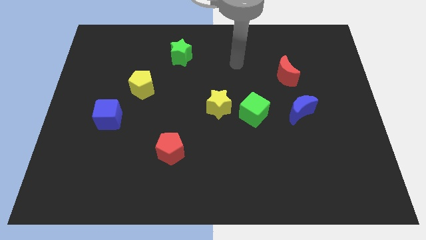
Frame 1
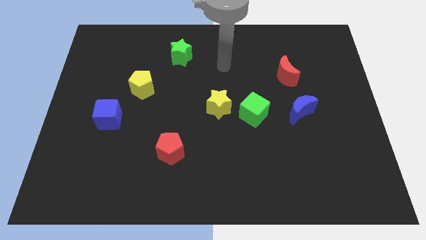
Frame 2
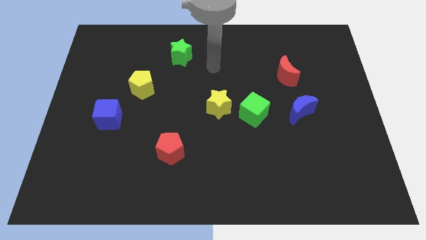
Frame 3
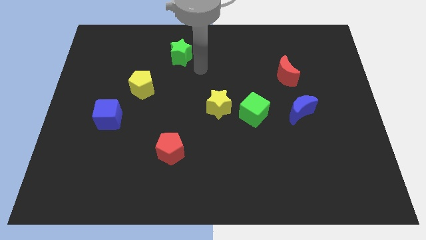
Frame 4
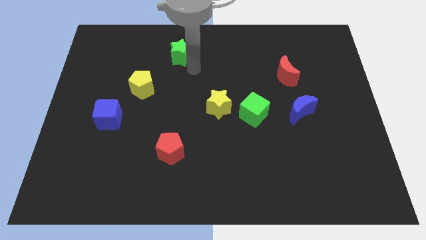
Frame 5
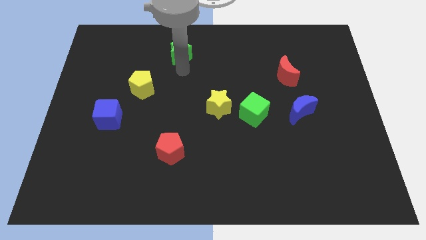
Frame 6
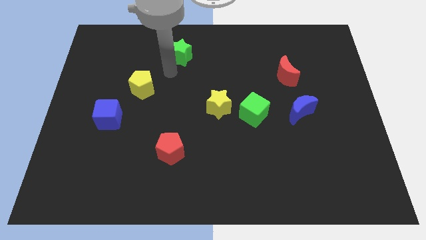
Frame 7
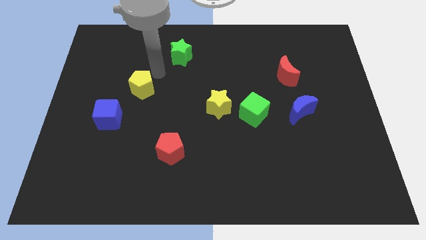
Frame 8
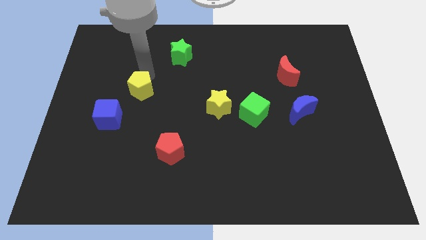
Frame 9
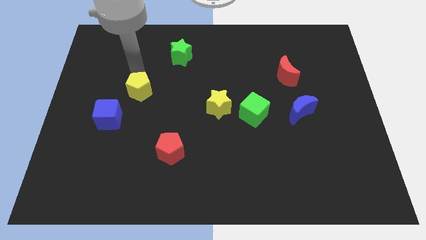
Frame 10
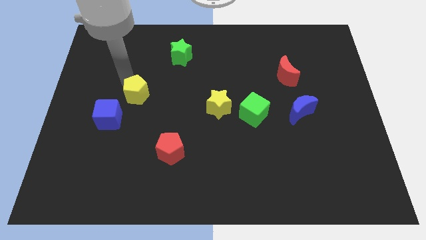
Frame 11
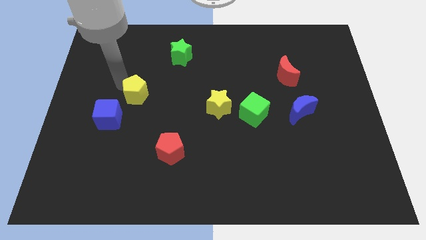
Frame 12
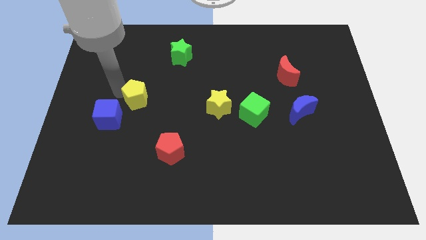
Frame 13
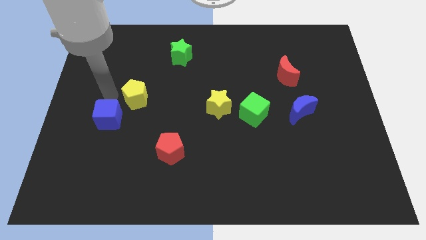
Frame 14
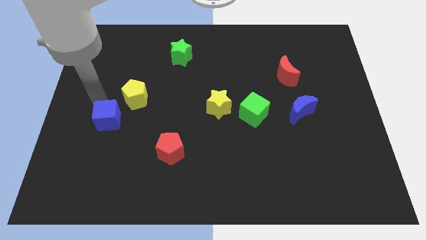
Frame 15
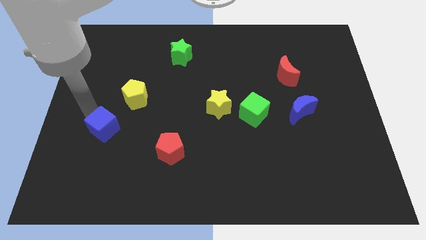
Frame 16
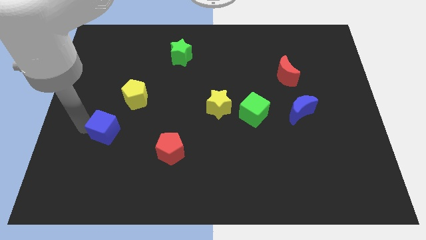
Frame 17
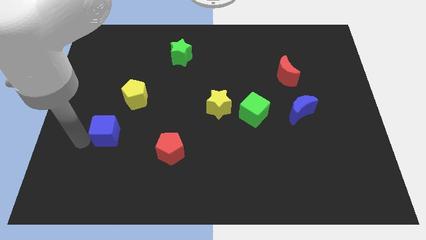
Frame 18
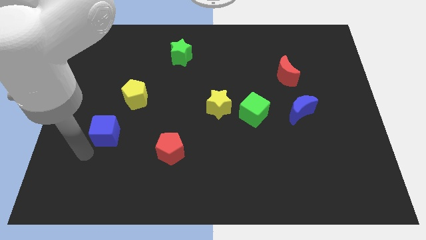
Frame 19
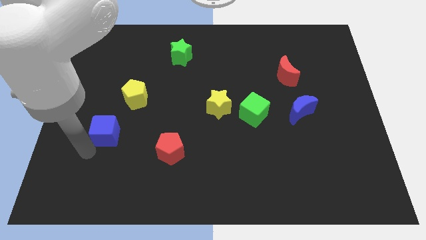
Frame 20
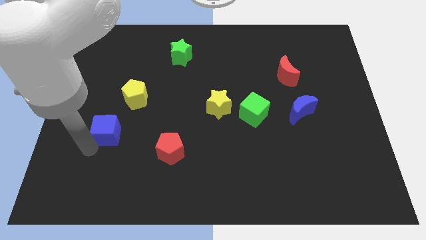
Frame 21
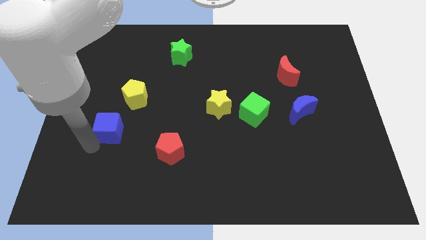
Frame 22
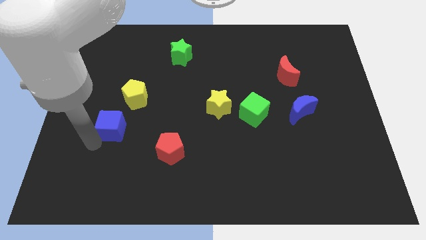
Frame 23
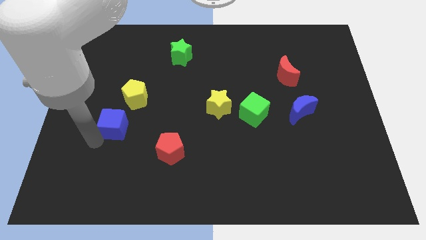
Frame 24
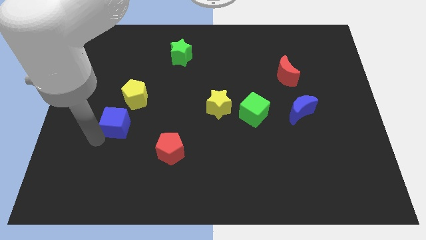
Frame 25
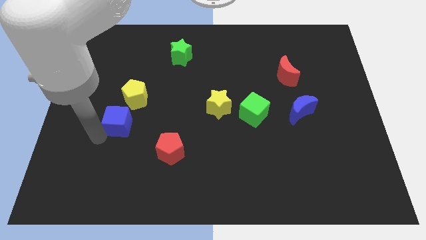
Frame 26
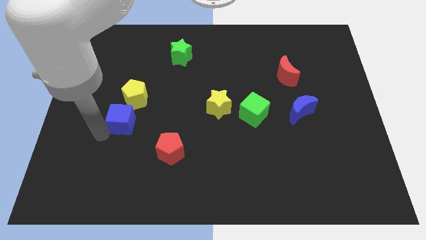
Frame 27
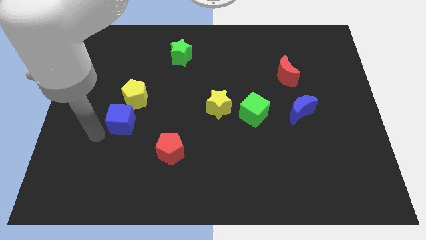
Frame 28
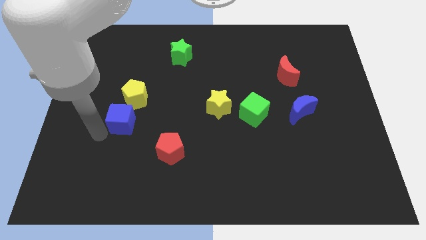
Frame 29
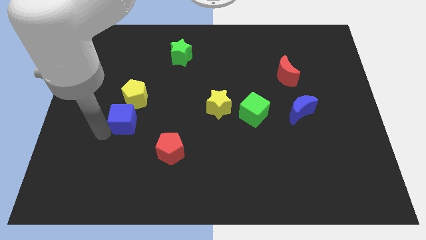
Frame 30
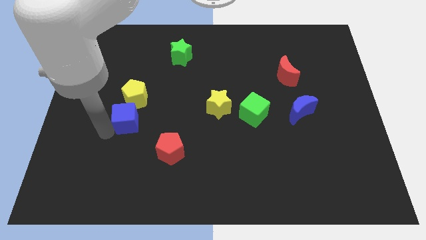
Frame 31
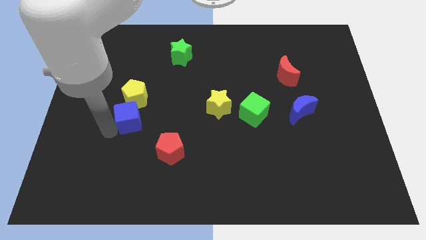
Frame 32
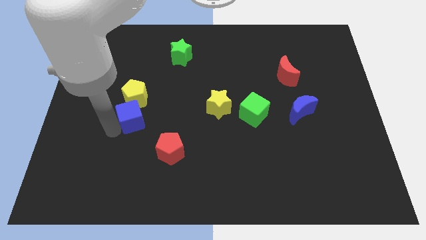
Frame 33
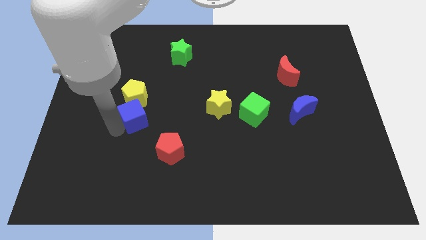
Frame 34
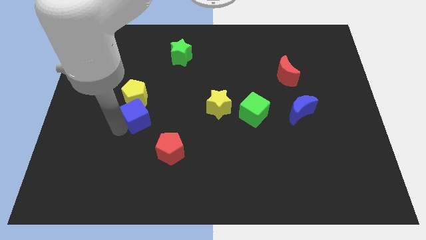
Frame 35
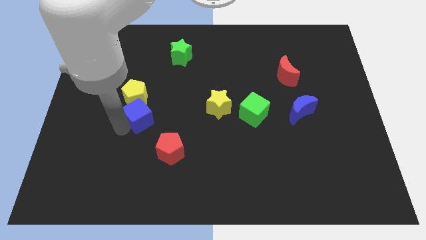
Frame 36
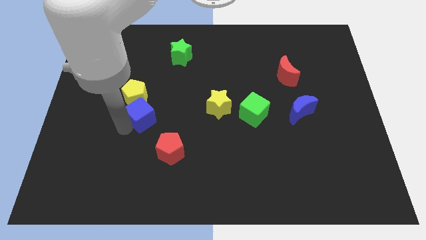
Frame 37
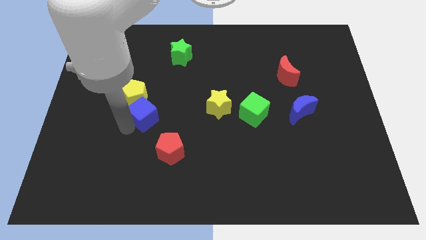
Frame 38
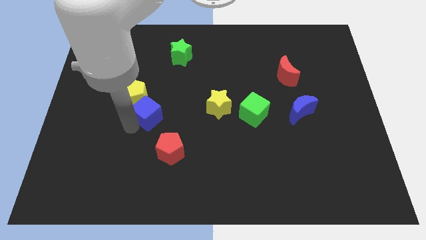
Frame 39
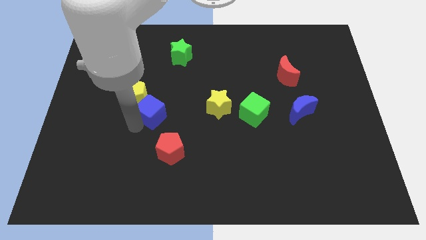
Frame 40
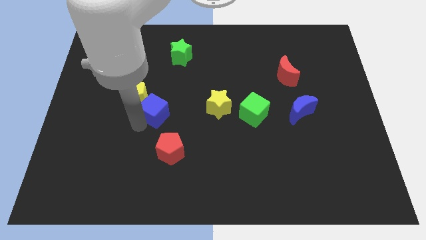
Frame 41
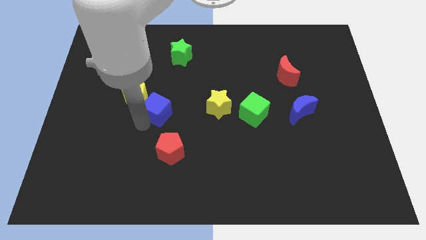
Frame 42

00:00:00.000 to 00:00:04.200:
slightly move the blue cube upwards and right diagonally

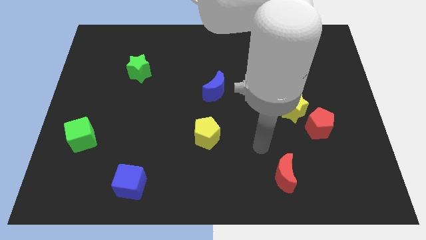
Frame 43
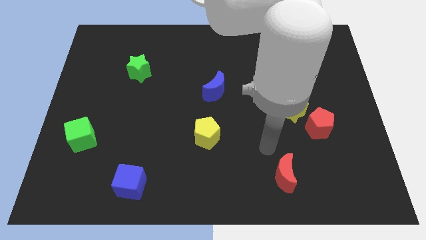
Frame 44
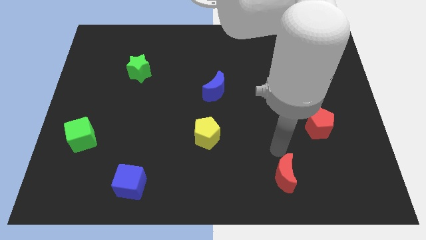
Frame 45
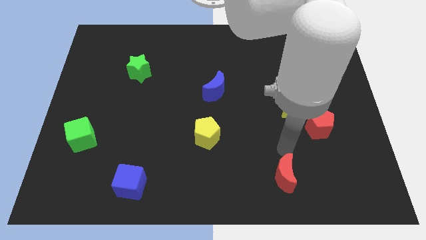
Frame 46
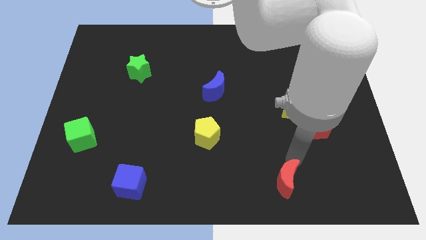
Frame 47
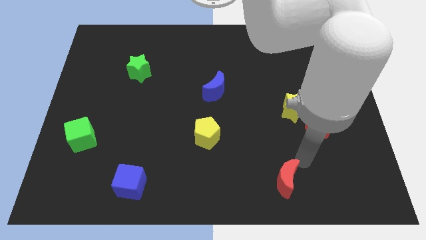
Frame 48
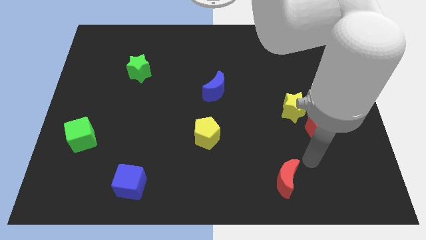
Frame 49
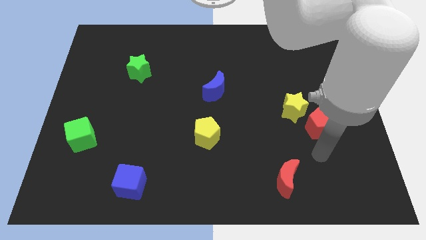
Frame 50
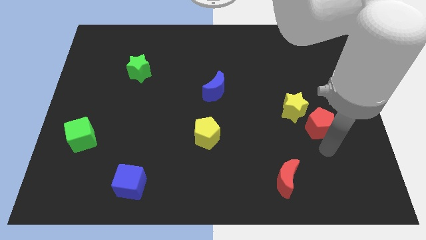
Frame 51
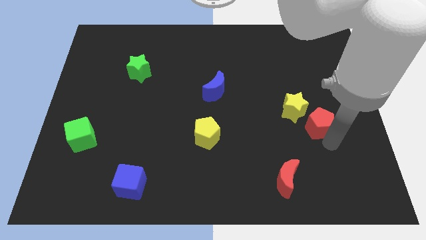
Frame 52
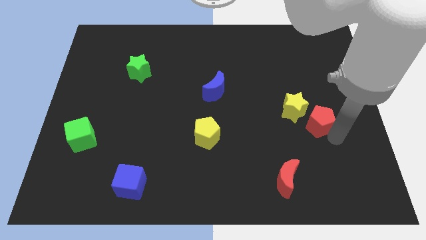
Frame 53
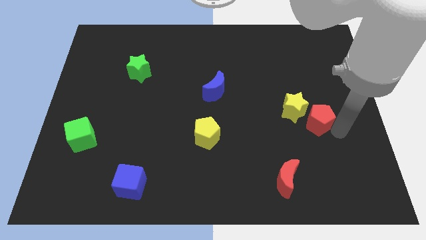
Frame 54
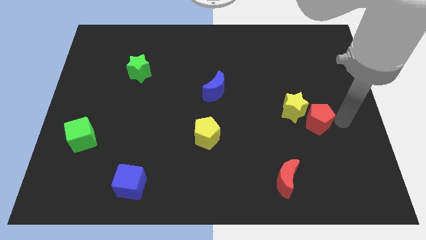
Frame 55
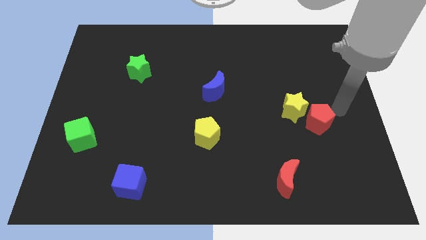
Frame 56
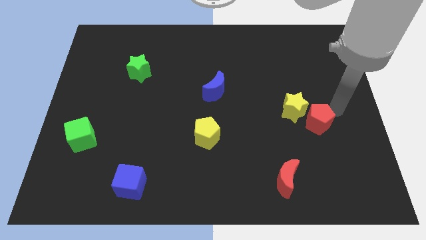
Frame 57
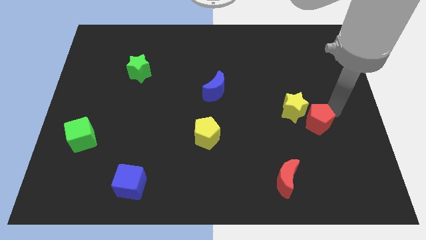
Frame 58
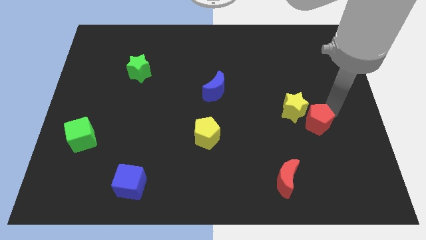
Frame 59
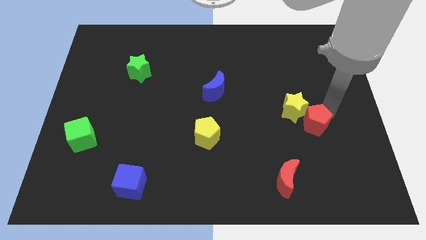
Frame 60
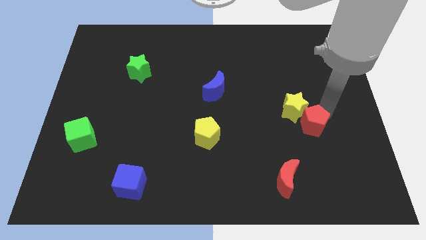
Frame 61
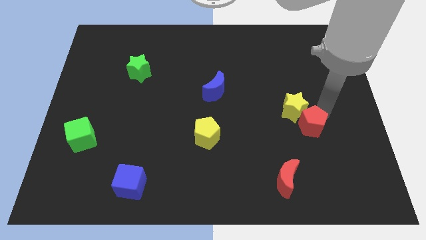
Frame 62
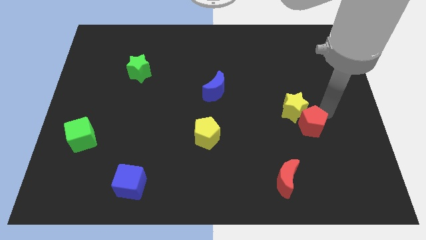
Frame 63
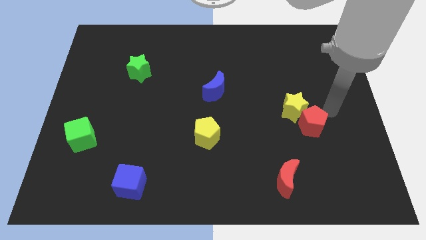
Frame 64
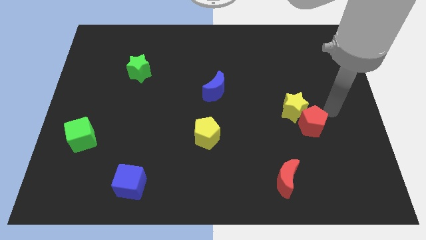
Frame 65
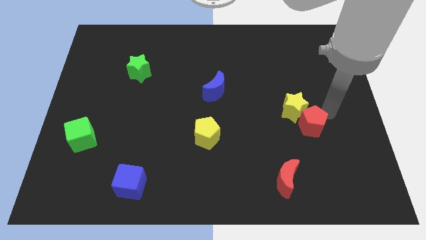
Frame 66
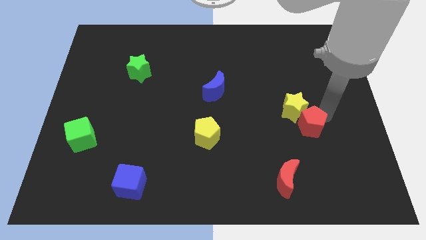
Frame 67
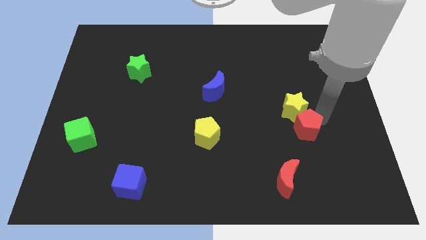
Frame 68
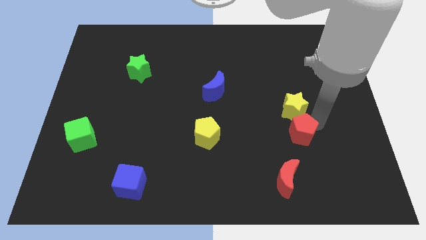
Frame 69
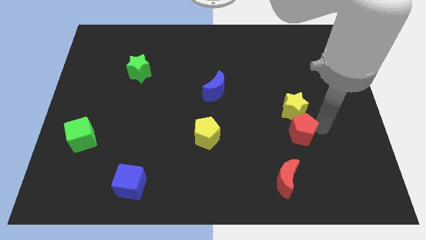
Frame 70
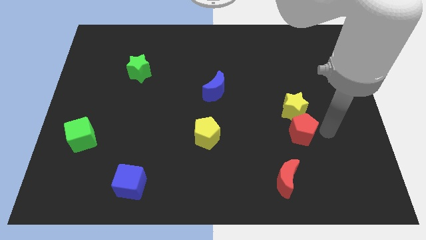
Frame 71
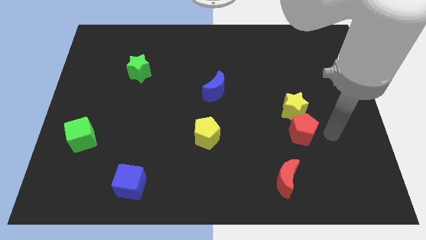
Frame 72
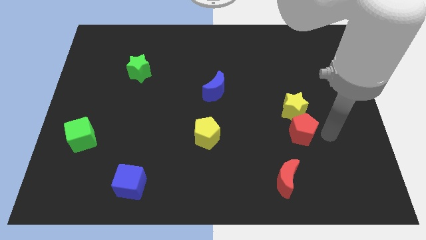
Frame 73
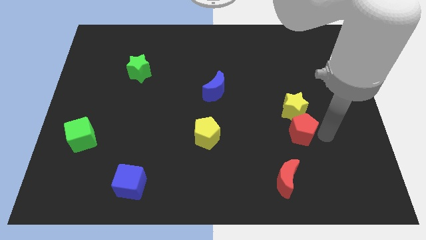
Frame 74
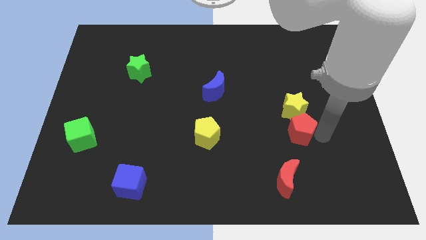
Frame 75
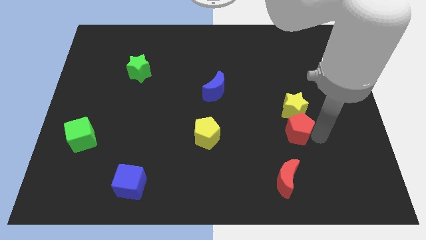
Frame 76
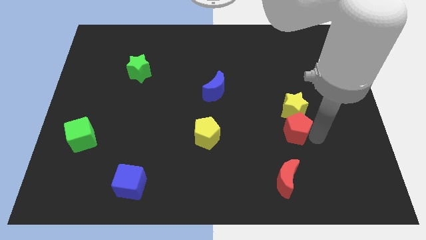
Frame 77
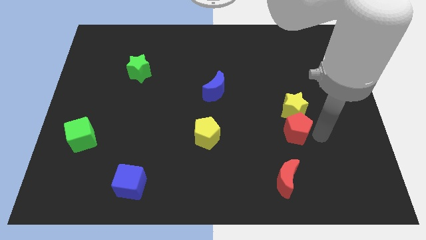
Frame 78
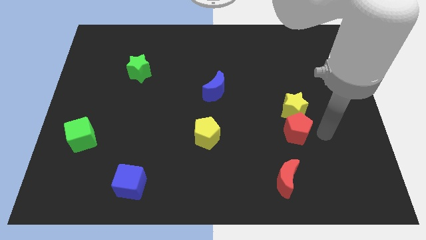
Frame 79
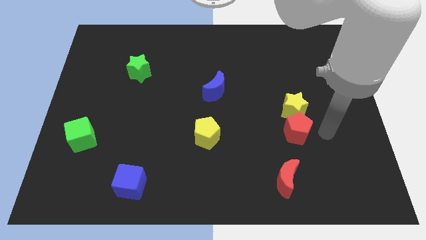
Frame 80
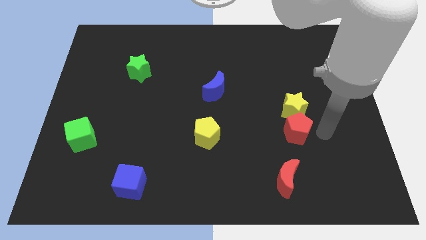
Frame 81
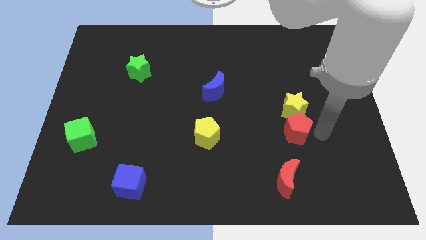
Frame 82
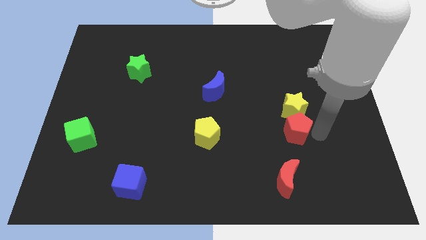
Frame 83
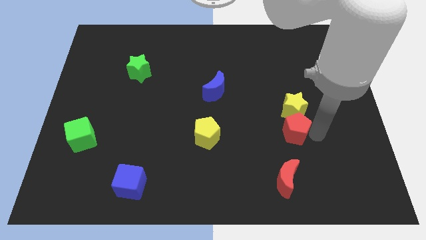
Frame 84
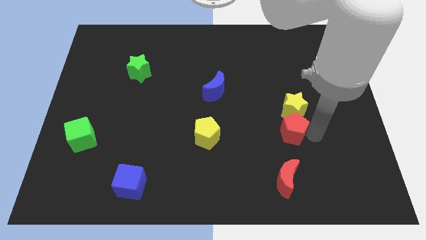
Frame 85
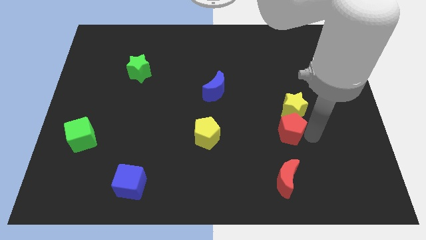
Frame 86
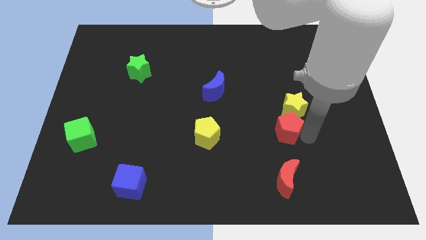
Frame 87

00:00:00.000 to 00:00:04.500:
slightly slide the red pentagon left

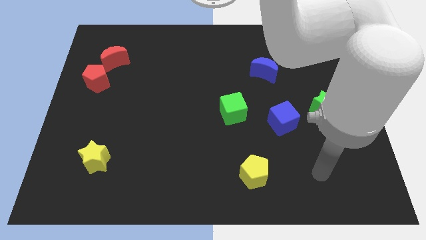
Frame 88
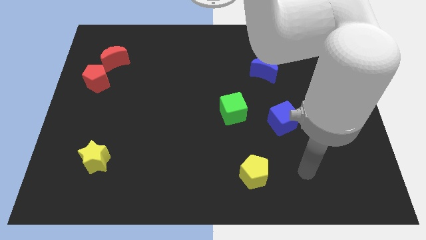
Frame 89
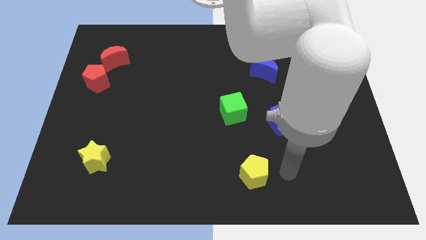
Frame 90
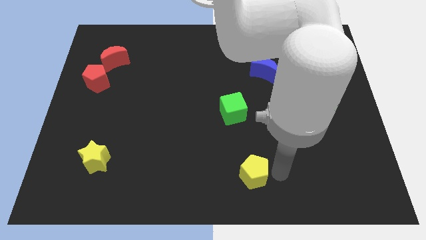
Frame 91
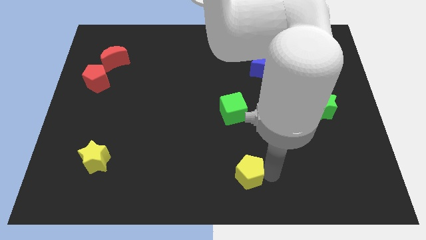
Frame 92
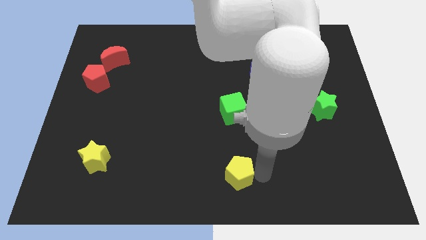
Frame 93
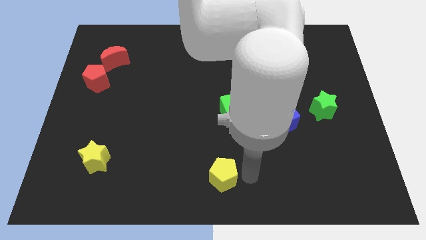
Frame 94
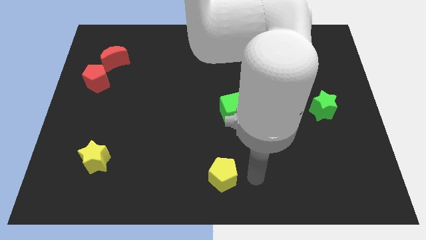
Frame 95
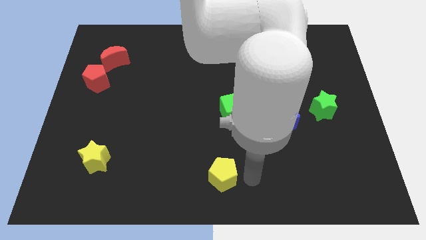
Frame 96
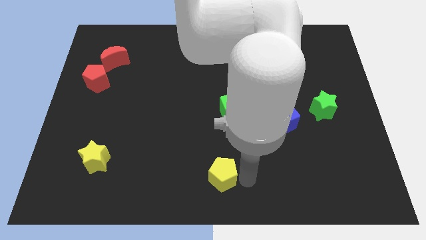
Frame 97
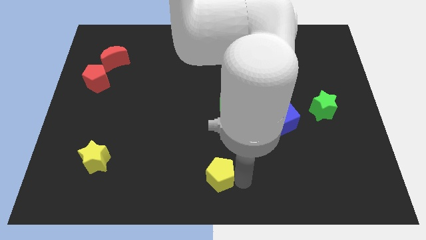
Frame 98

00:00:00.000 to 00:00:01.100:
push the yellow pentagon to the left somewhat
